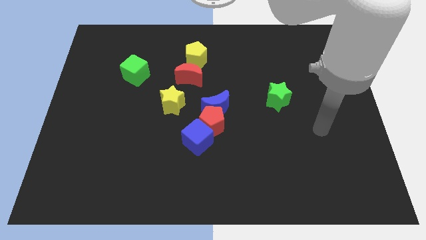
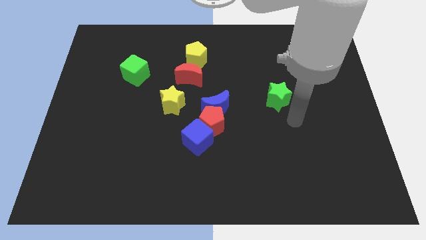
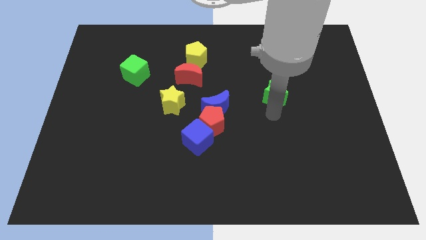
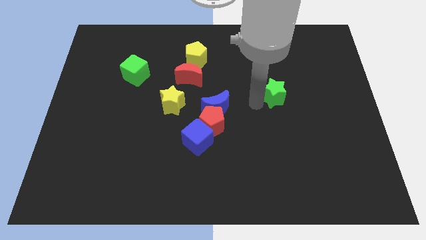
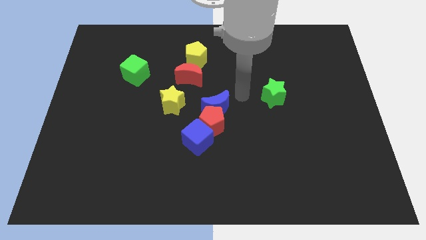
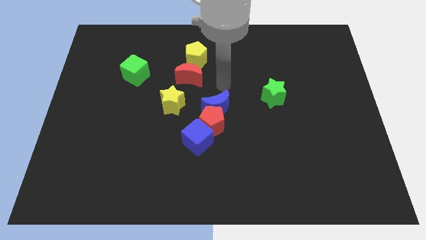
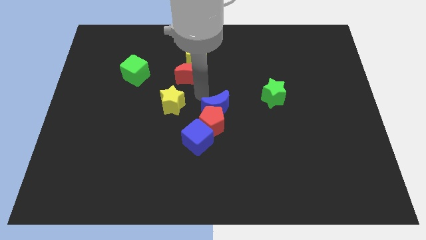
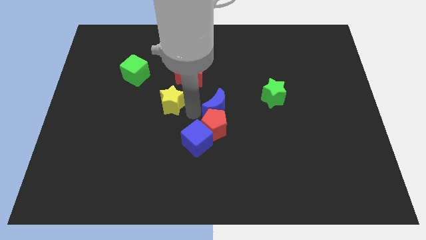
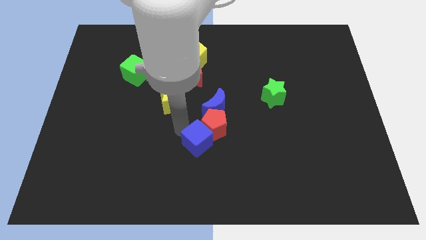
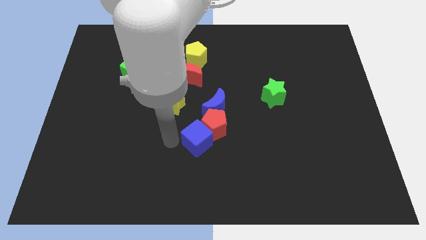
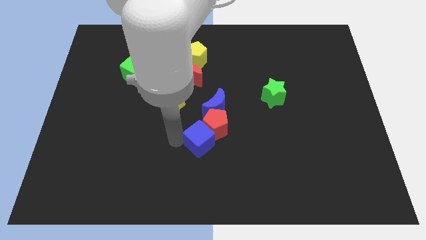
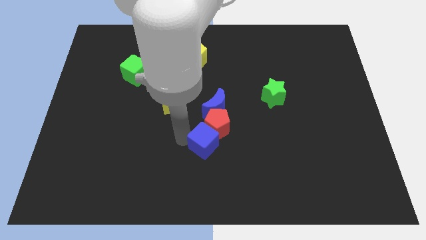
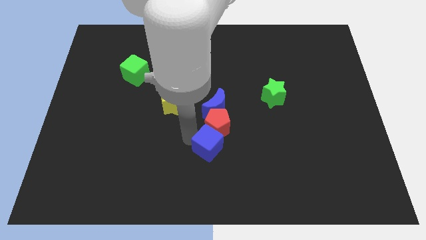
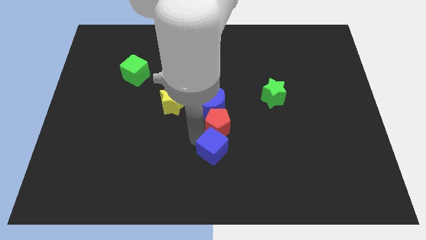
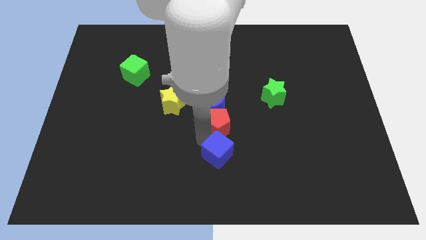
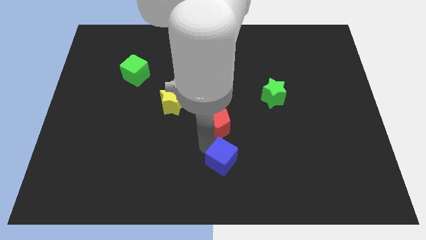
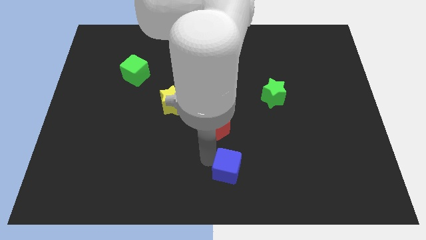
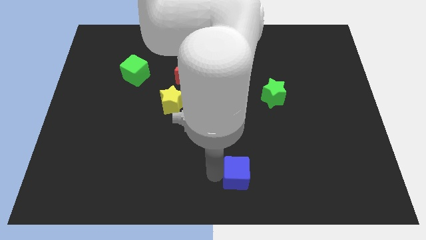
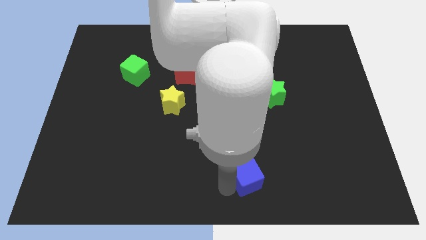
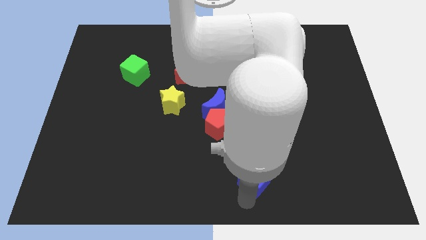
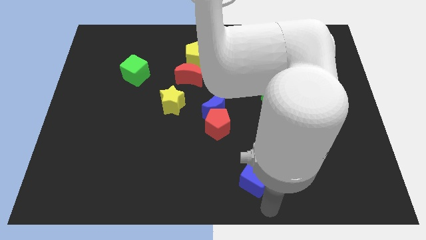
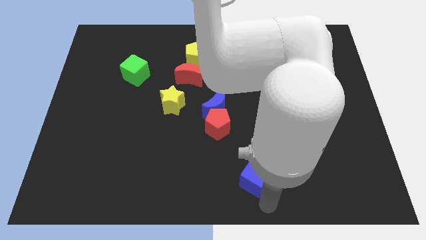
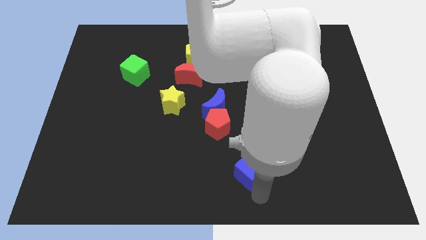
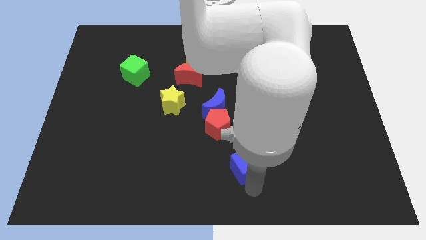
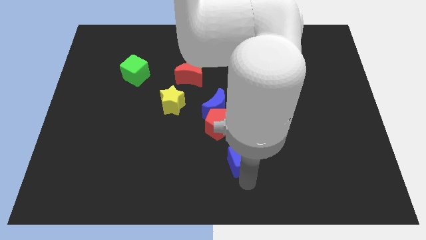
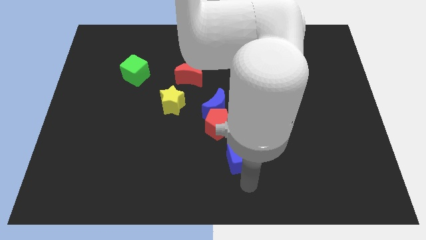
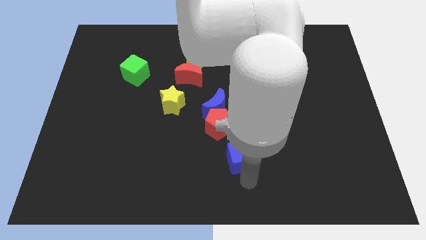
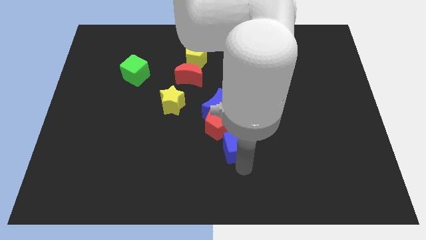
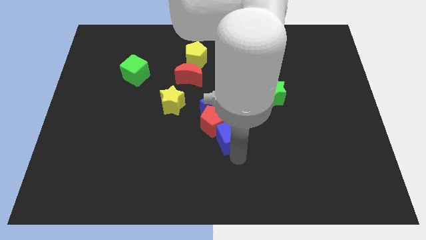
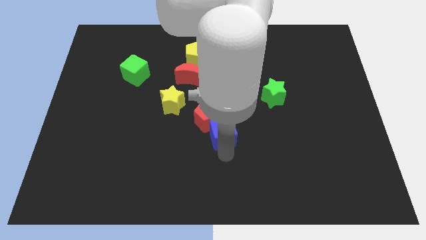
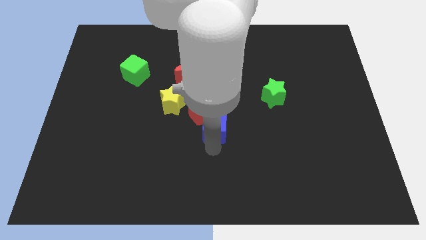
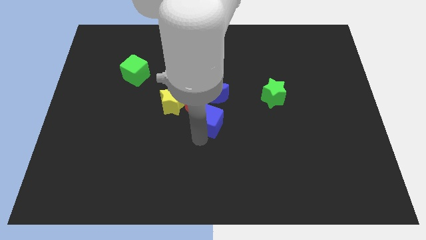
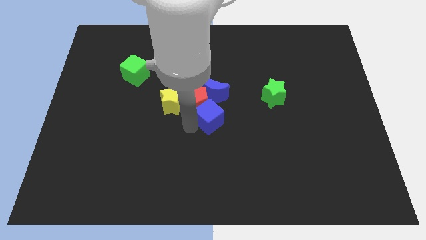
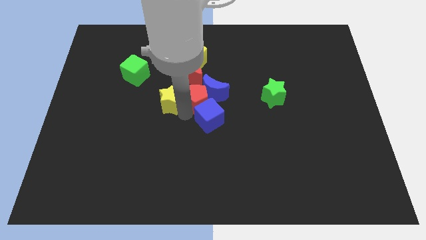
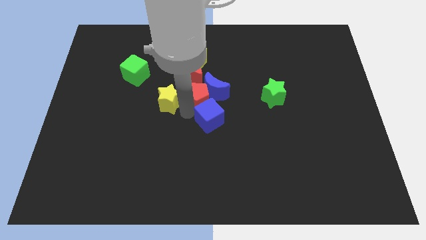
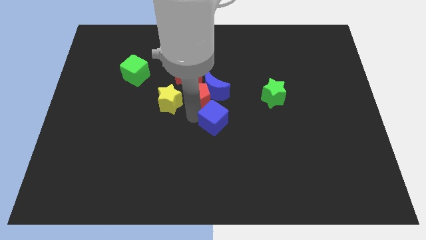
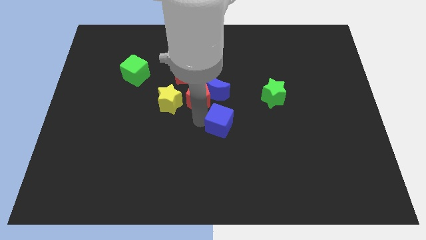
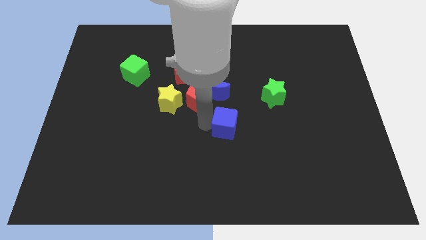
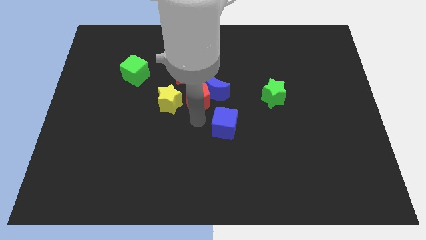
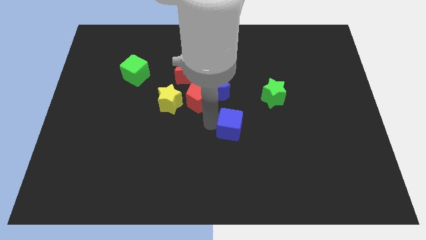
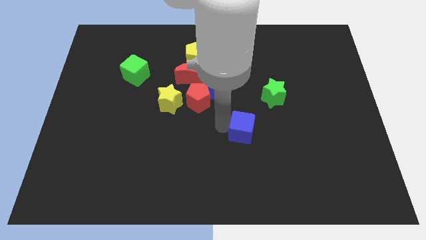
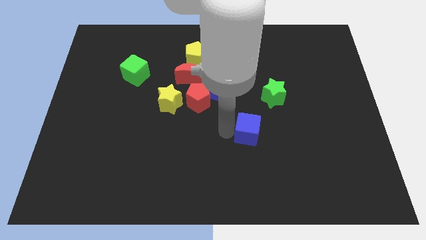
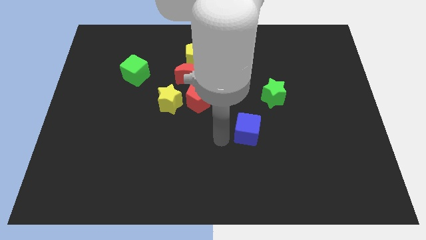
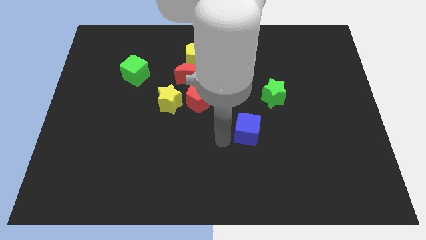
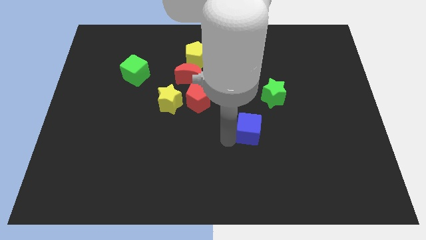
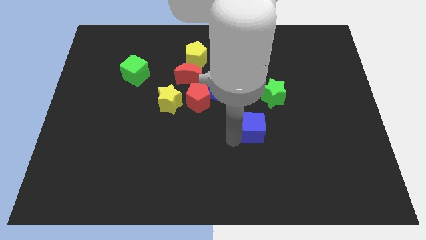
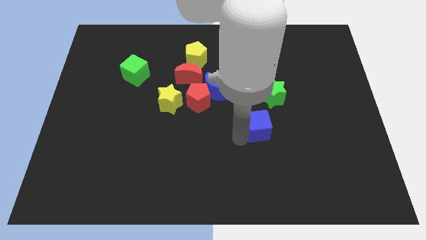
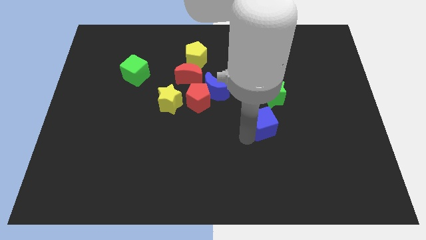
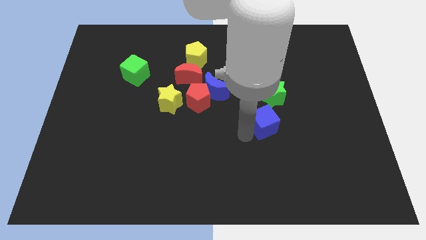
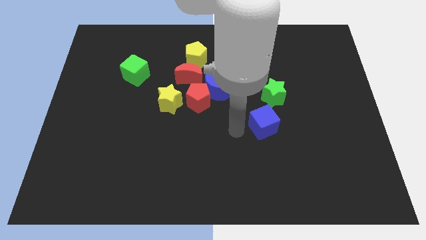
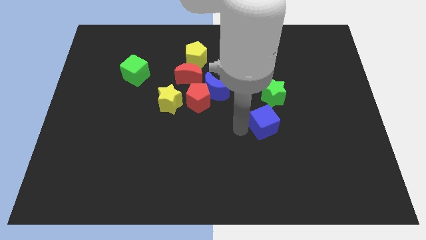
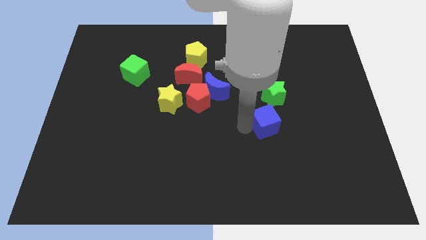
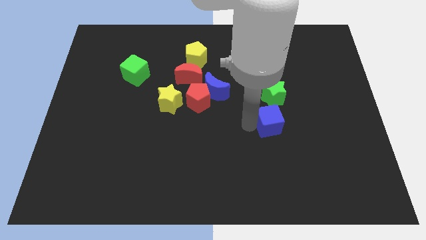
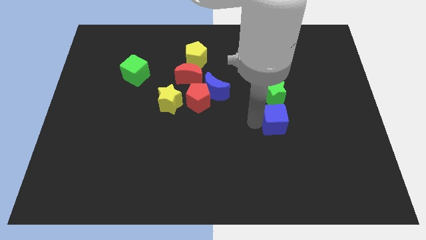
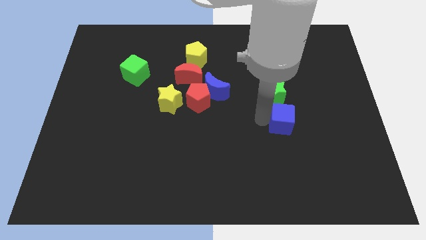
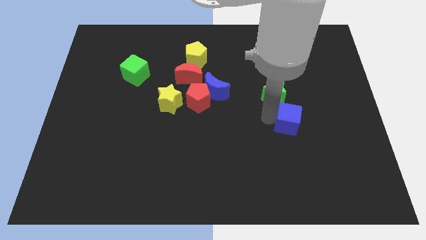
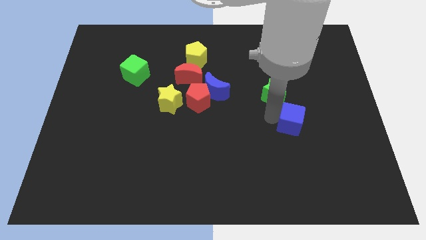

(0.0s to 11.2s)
slide the blue cube to the right

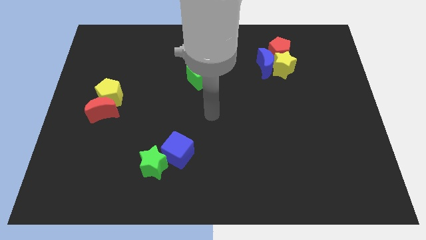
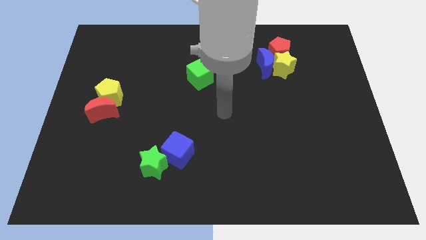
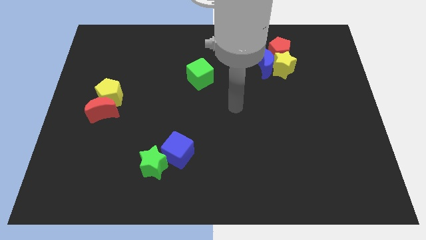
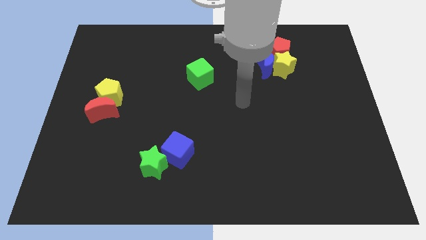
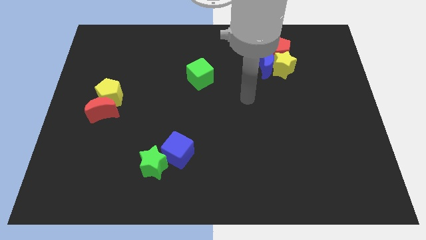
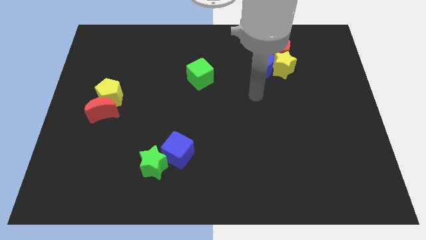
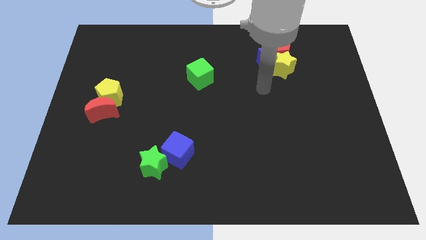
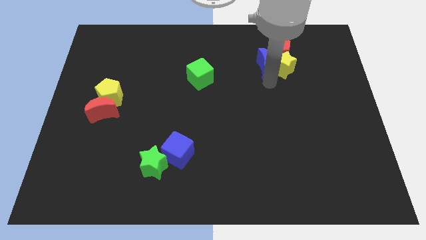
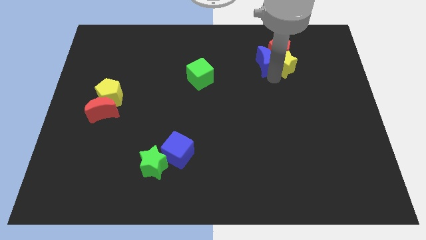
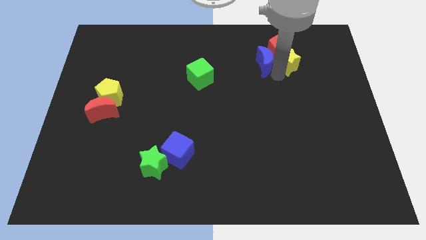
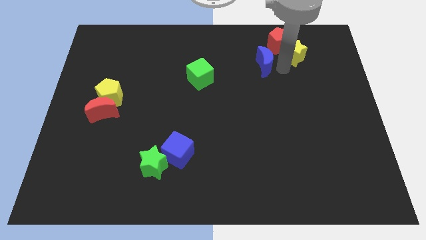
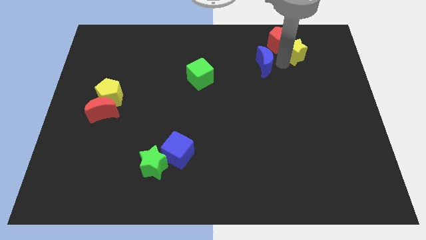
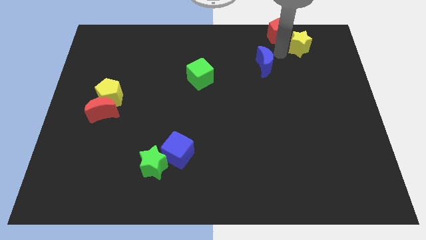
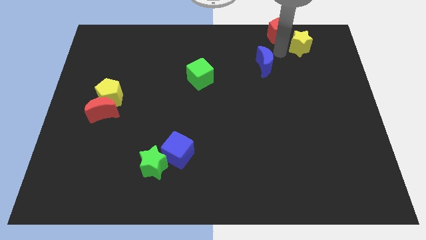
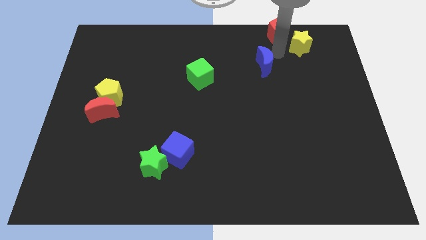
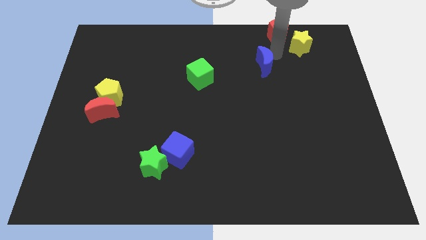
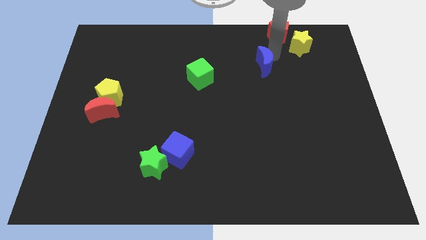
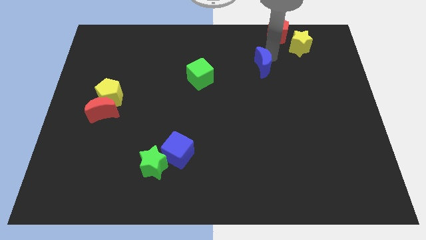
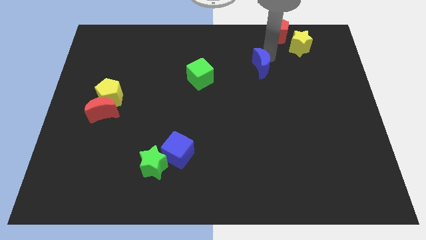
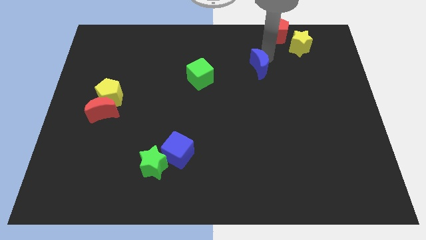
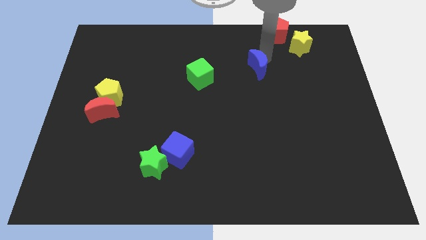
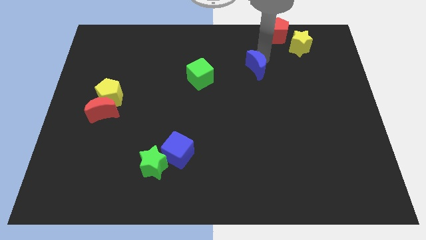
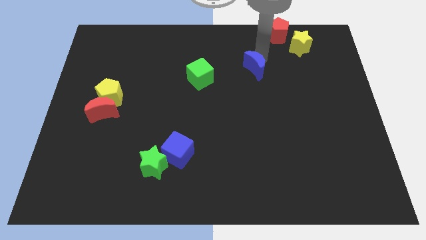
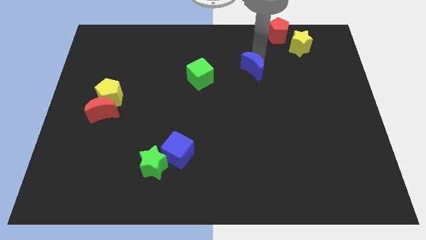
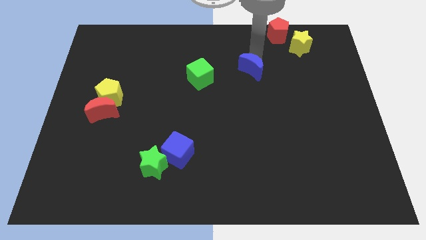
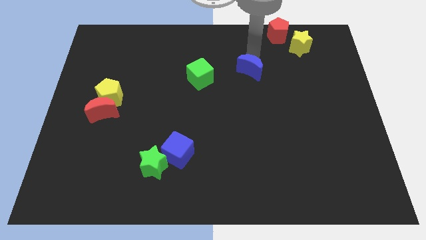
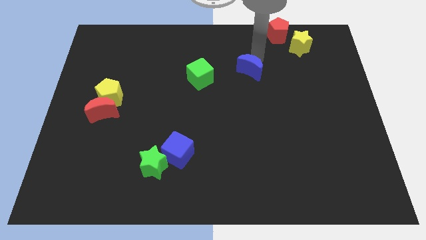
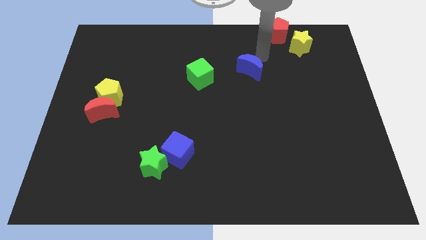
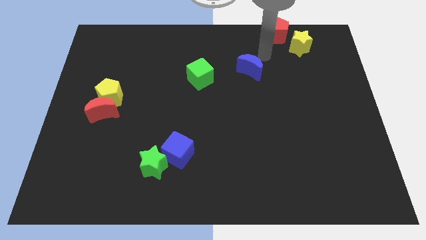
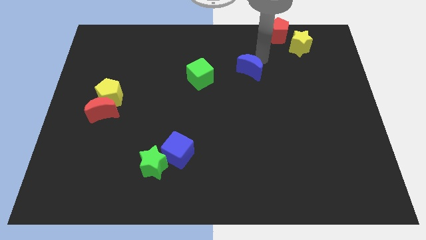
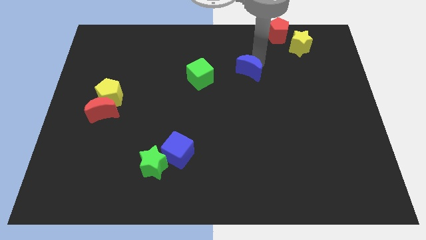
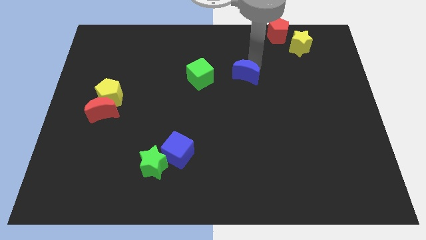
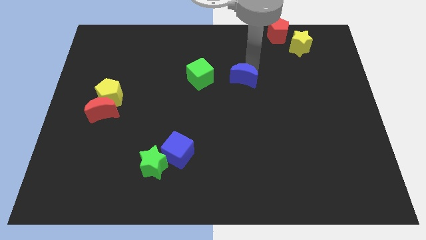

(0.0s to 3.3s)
push the blue moon downwards and left a little
